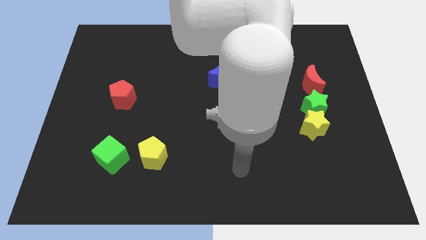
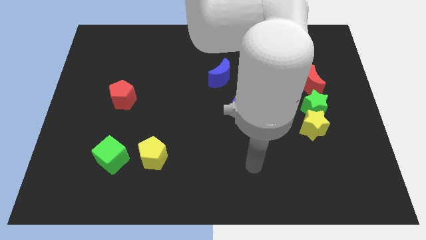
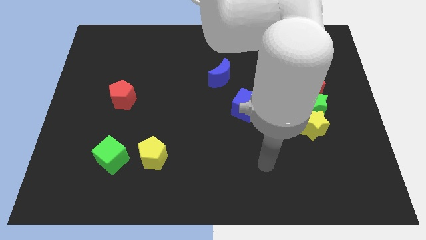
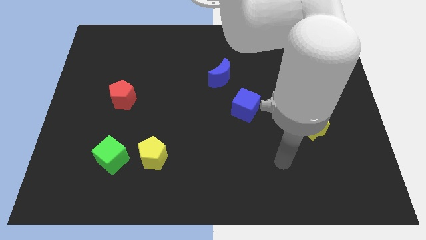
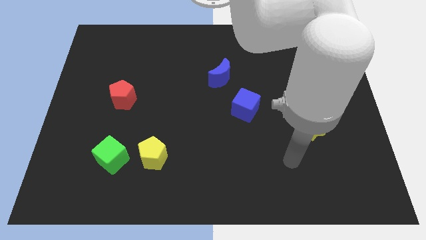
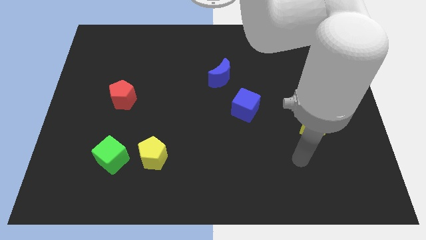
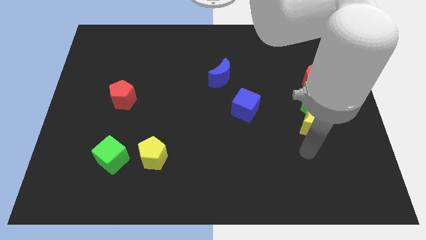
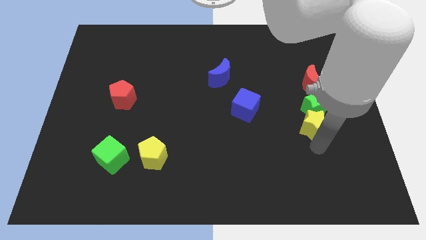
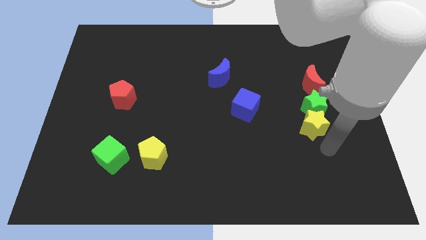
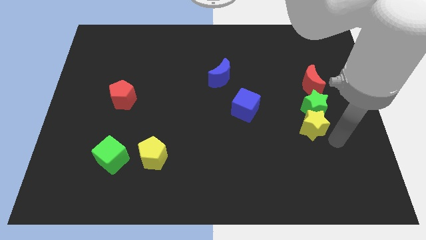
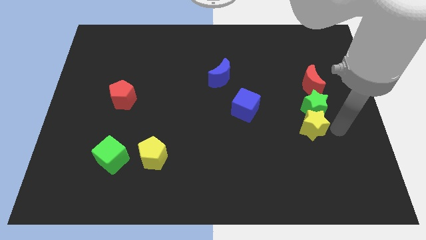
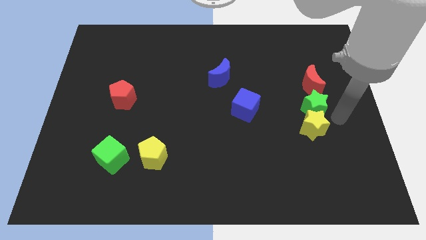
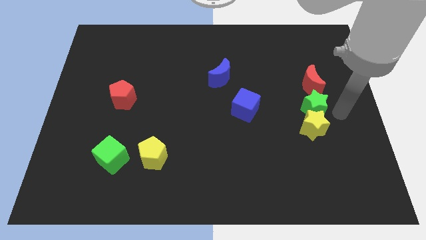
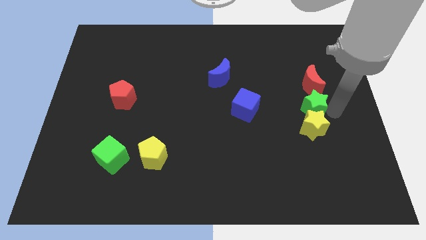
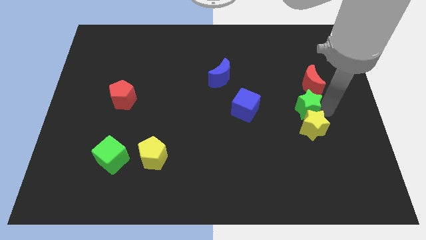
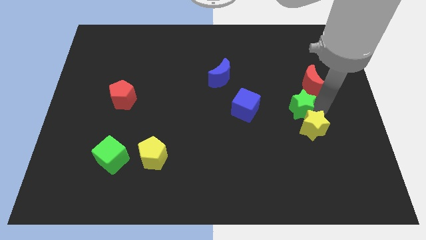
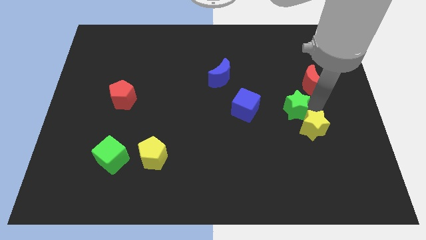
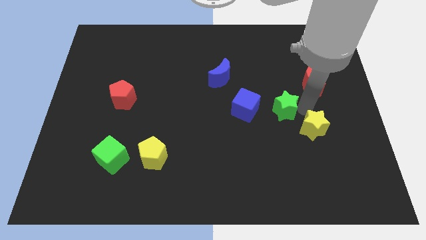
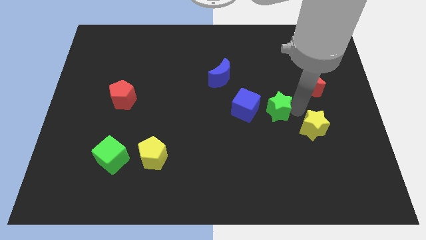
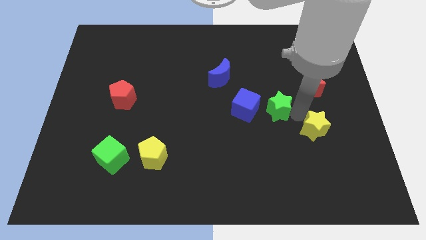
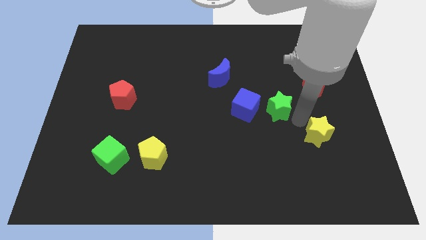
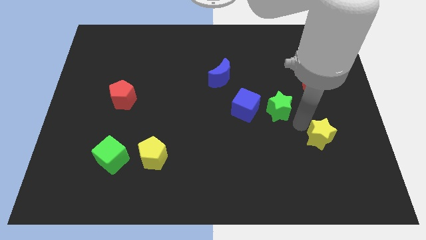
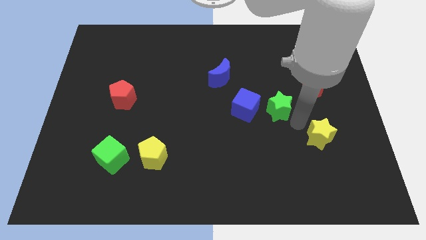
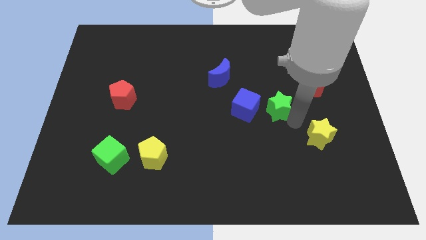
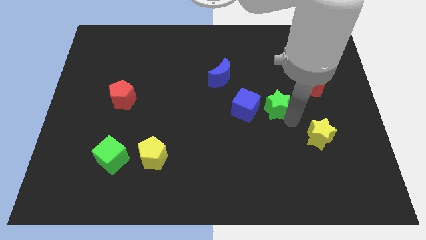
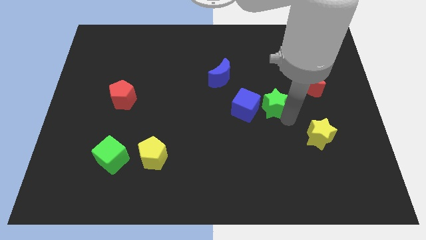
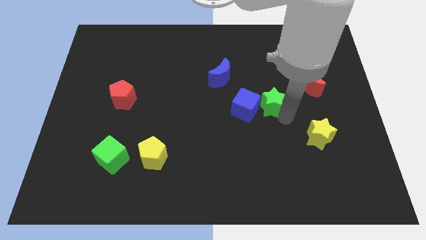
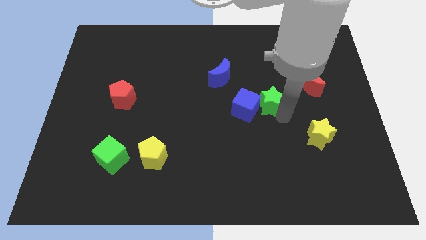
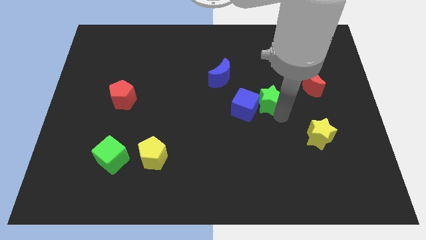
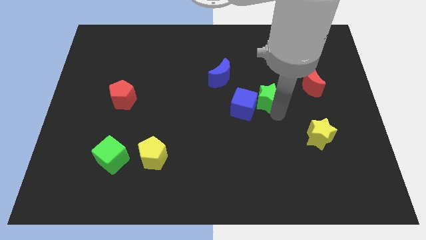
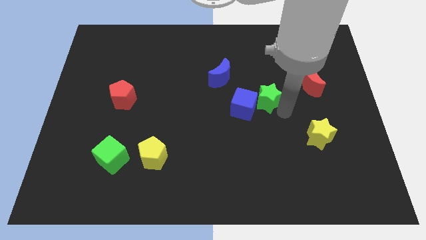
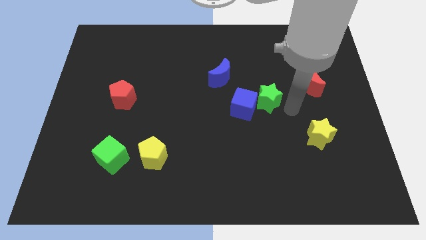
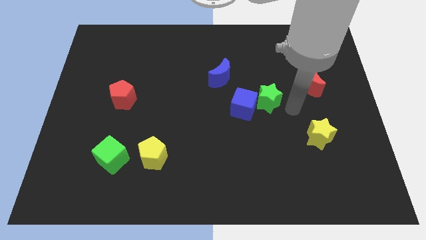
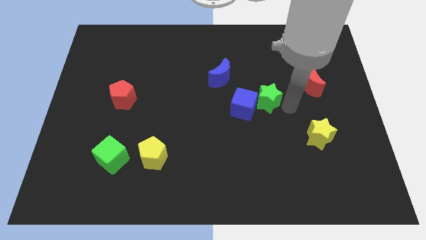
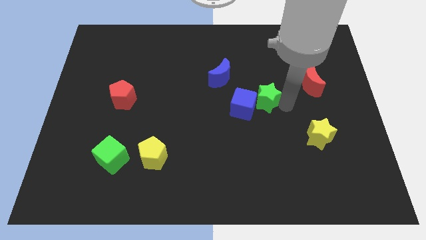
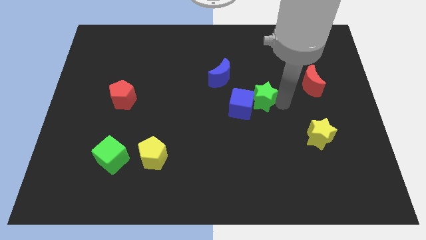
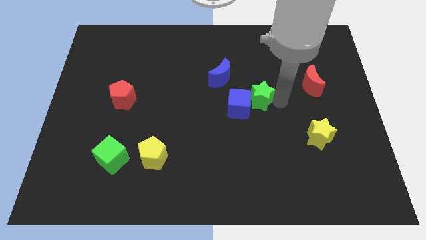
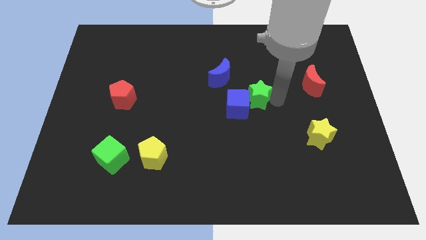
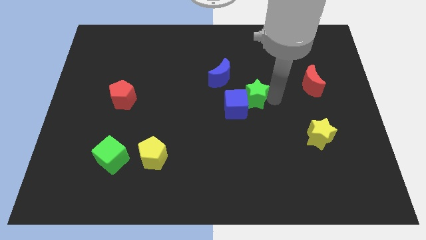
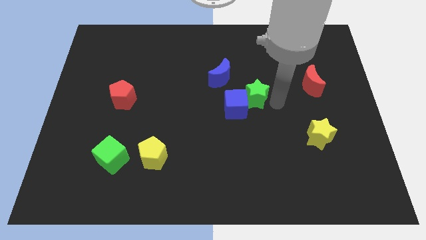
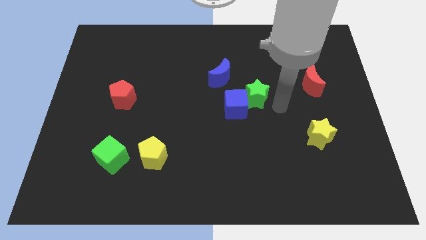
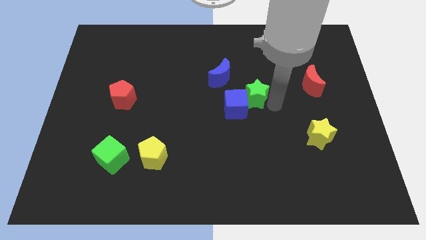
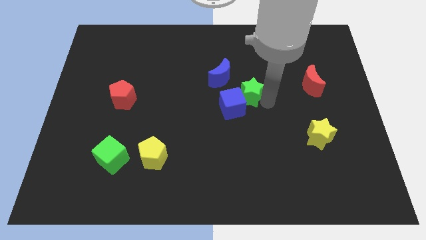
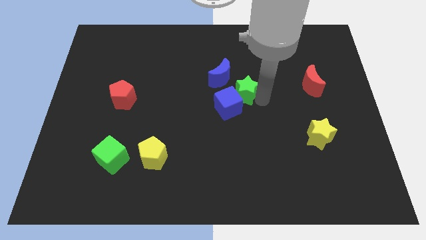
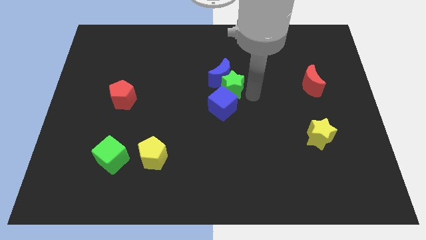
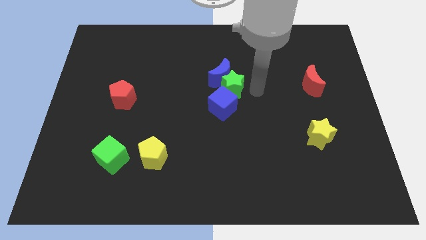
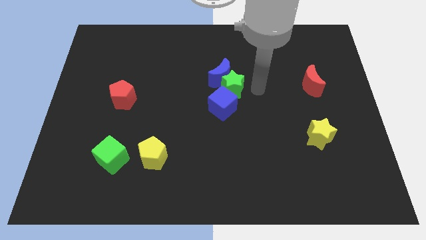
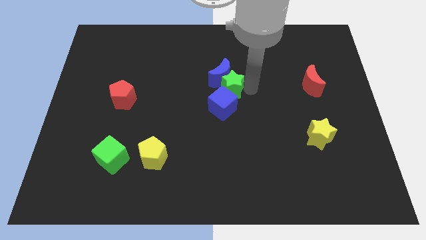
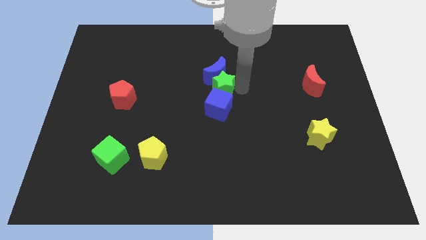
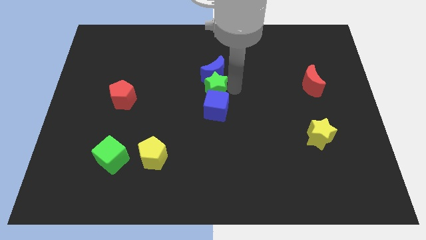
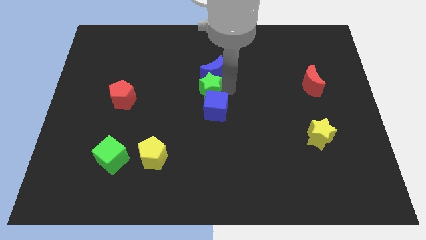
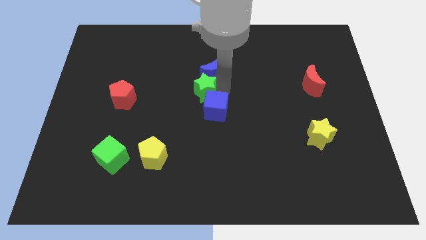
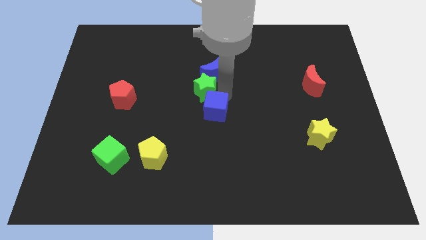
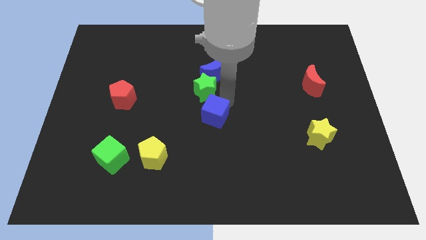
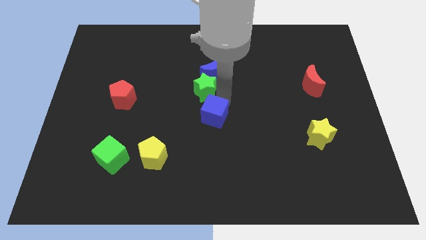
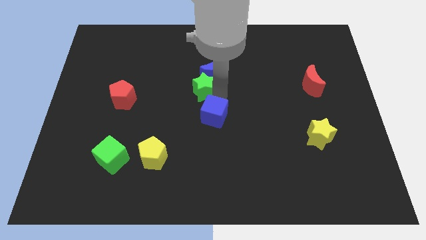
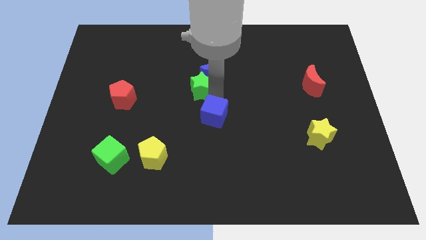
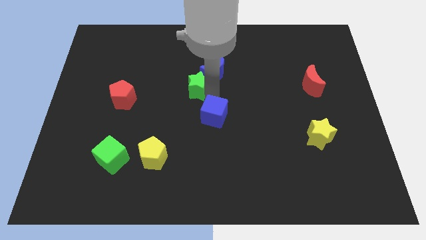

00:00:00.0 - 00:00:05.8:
put the green star to the left side of the blue moon

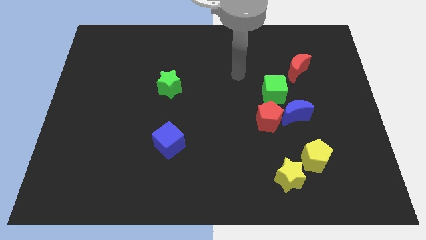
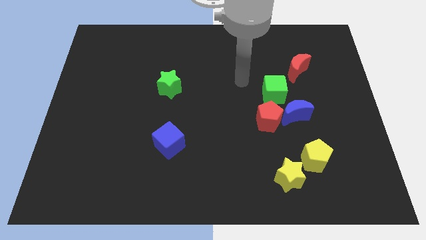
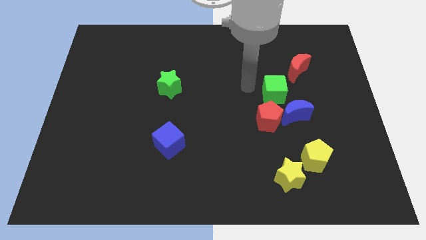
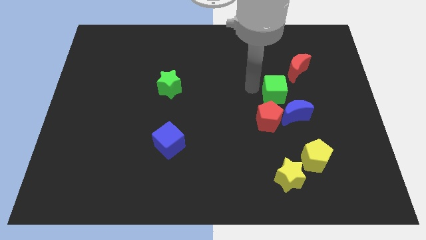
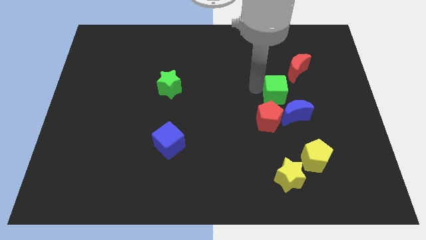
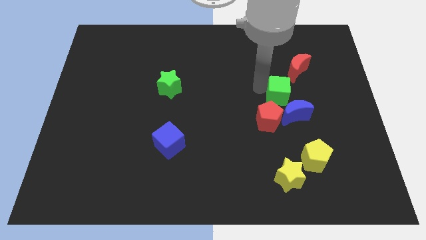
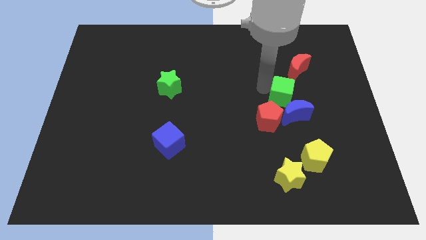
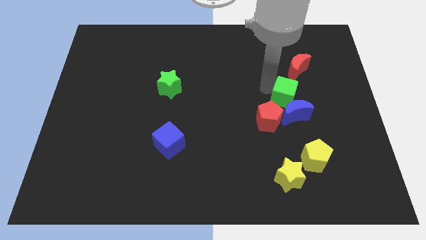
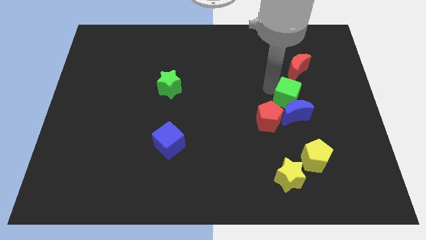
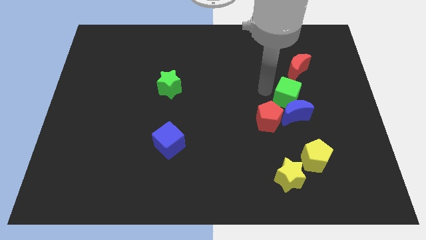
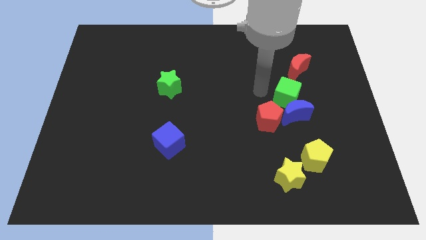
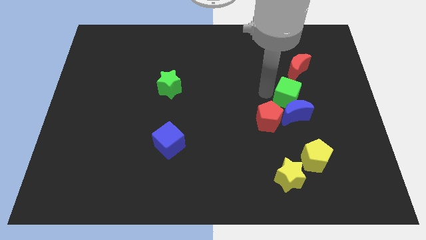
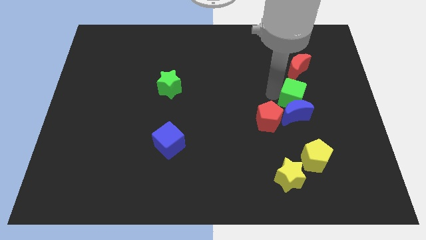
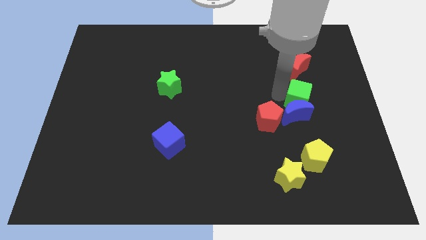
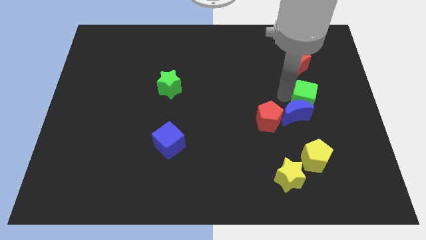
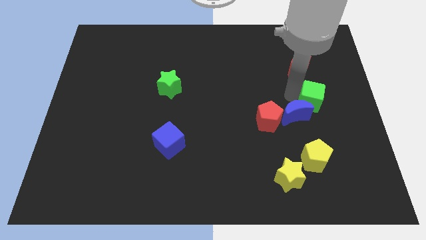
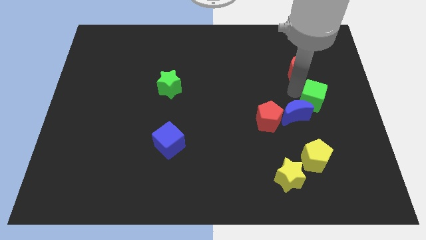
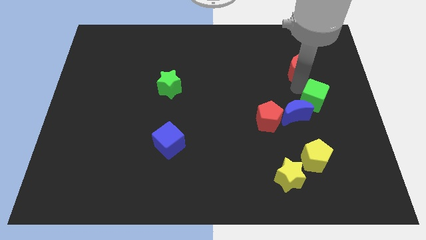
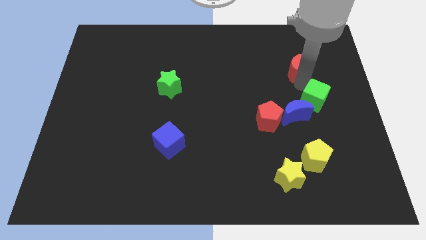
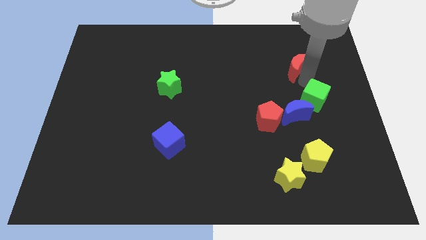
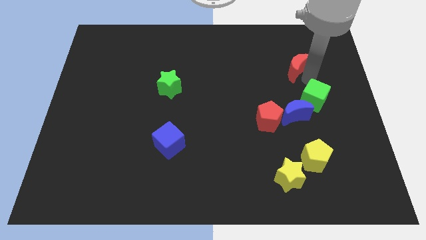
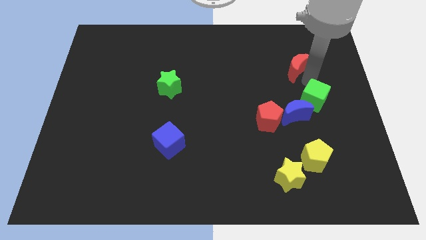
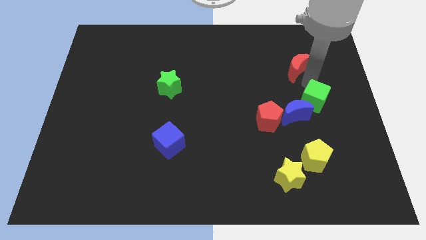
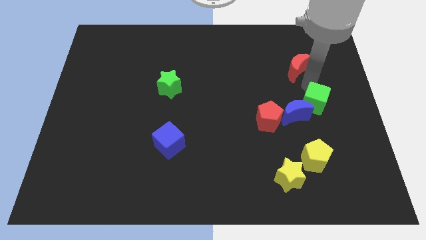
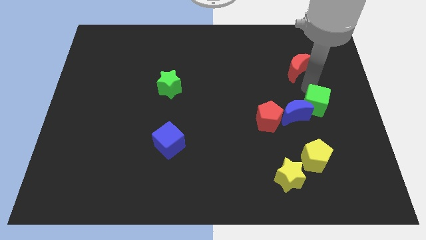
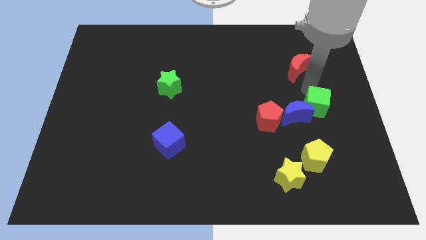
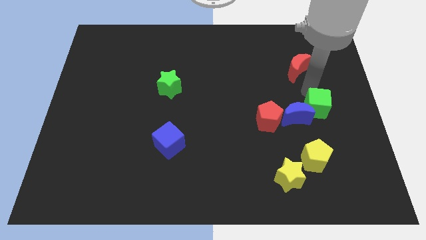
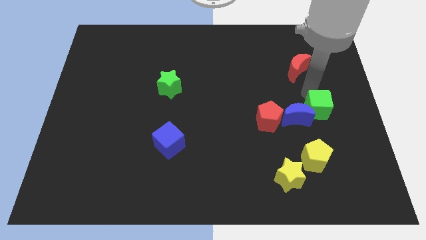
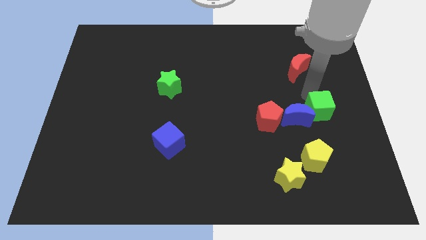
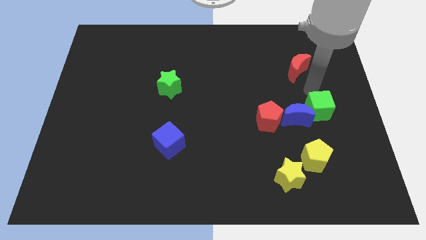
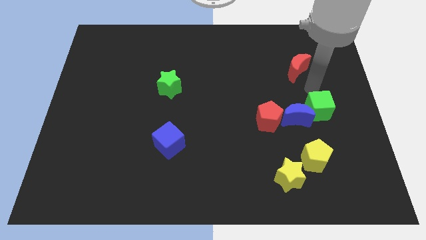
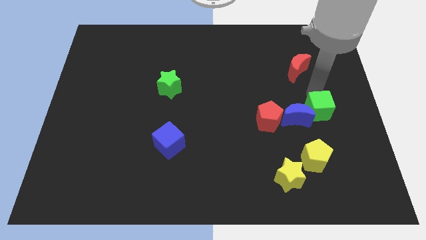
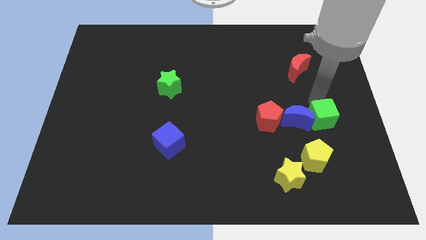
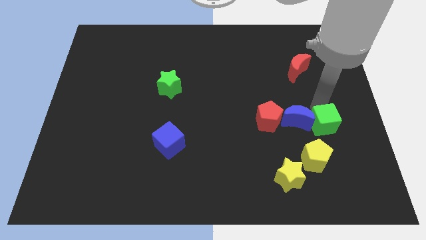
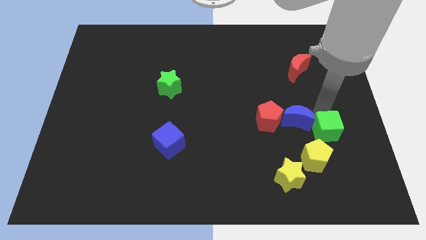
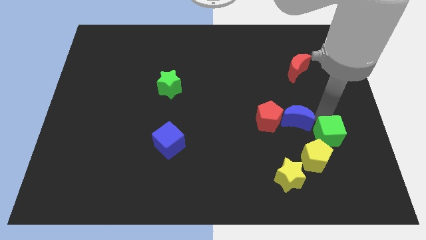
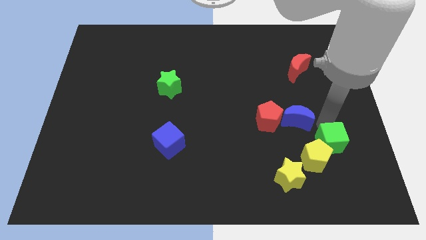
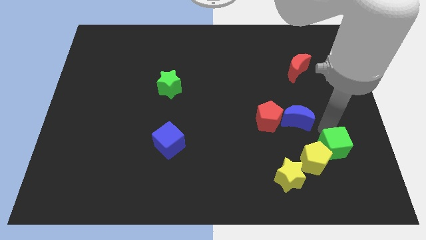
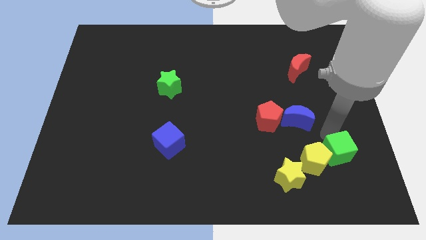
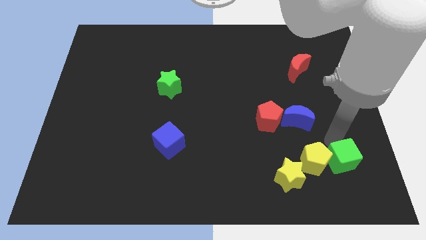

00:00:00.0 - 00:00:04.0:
push the green cube diagonally down and to the right of the yellow pentagon
